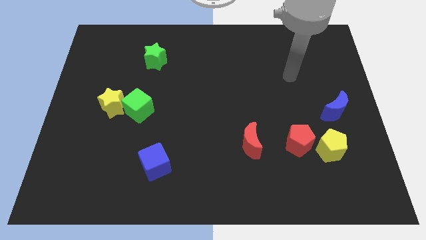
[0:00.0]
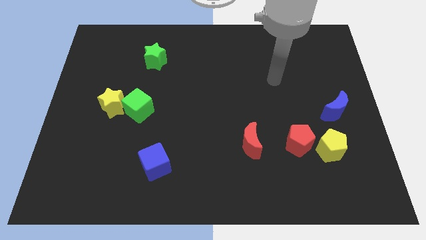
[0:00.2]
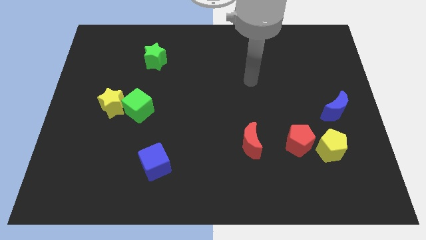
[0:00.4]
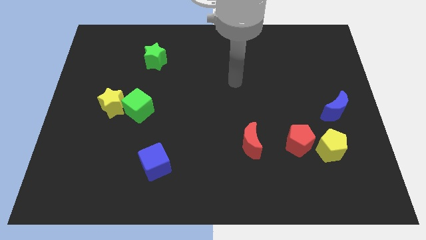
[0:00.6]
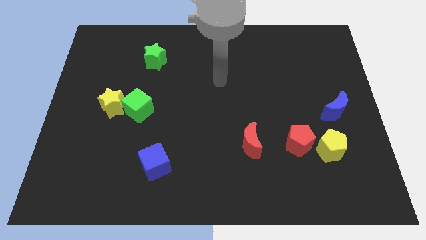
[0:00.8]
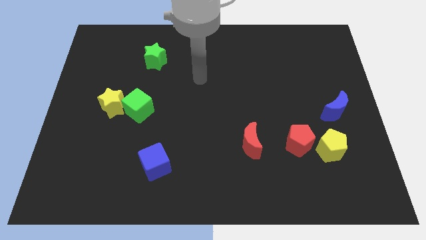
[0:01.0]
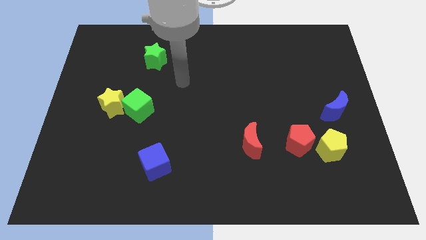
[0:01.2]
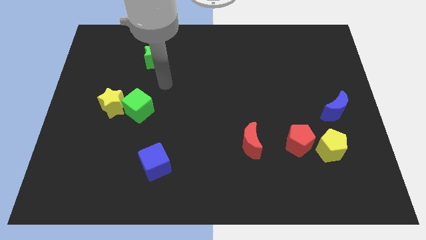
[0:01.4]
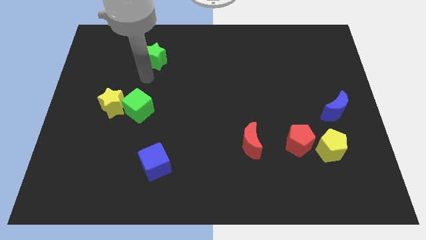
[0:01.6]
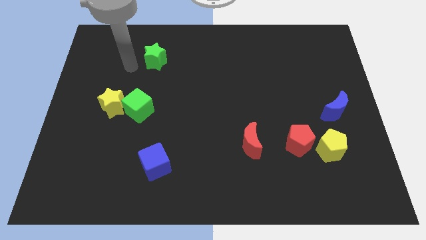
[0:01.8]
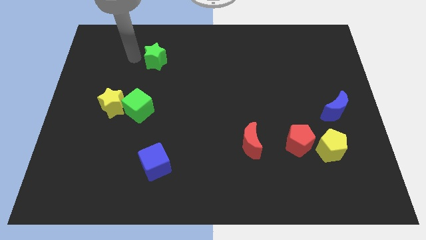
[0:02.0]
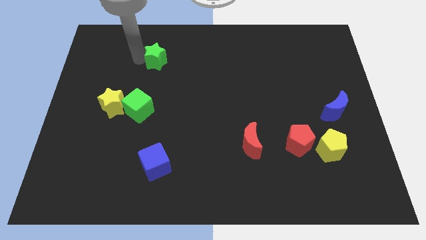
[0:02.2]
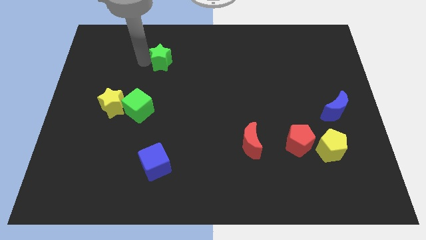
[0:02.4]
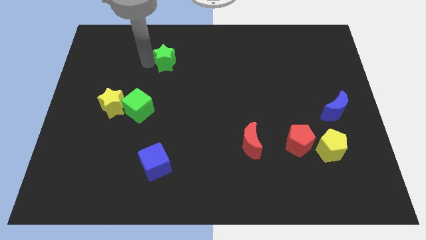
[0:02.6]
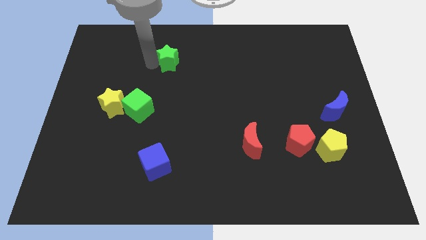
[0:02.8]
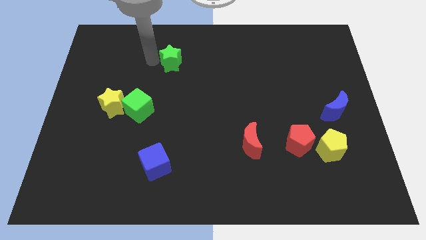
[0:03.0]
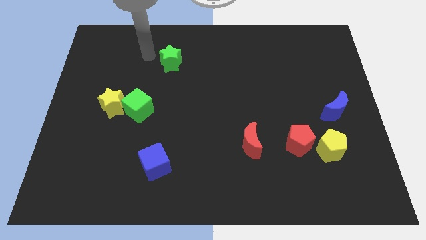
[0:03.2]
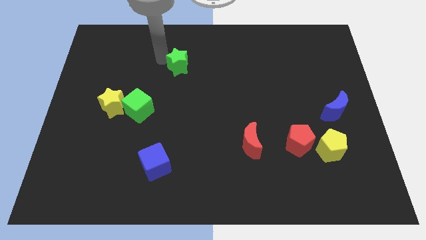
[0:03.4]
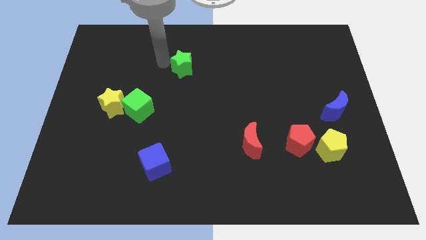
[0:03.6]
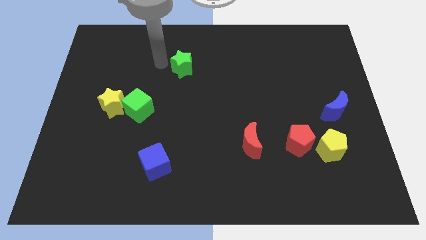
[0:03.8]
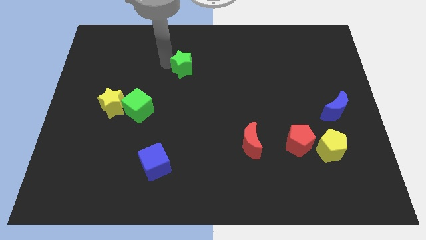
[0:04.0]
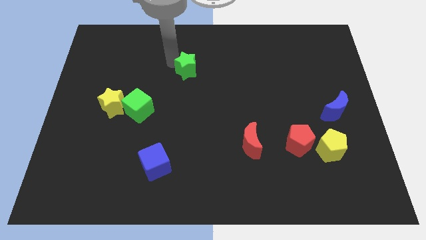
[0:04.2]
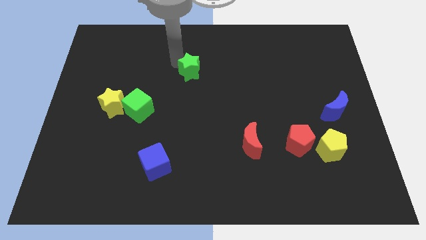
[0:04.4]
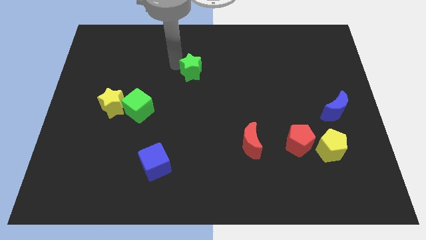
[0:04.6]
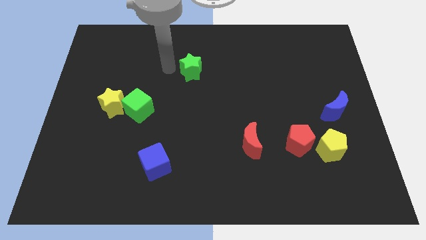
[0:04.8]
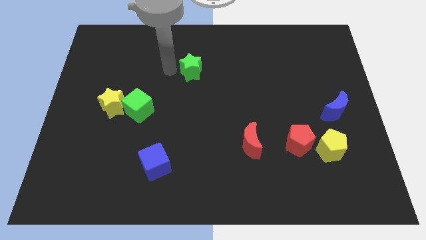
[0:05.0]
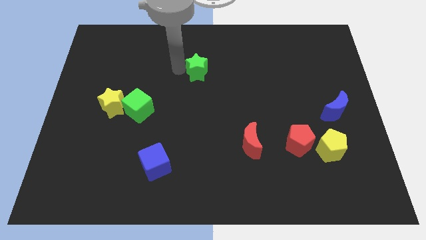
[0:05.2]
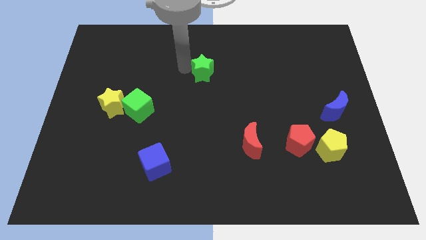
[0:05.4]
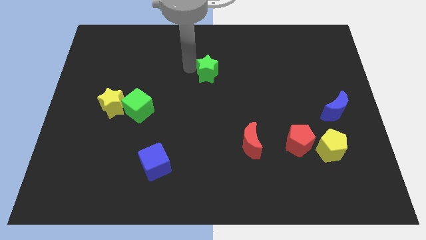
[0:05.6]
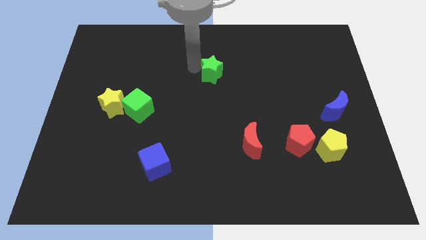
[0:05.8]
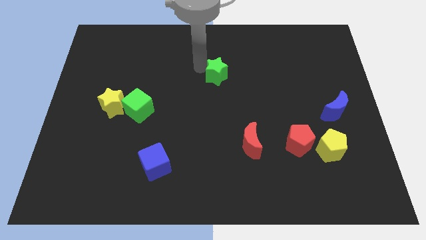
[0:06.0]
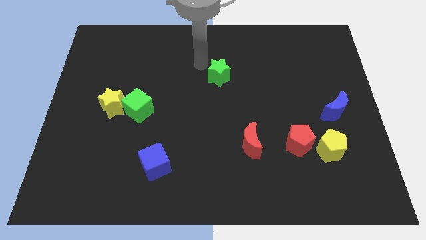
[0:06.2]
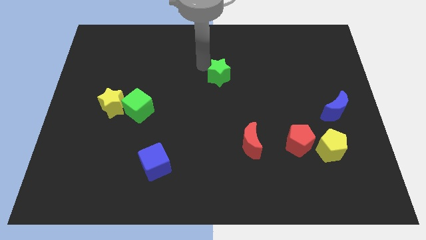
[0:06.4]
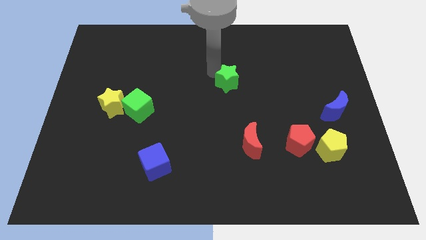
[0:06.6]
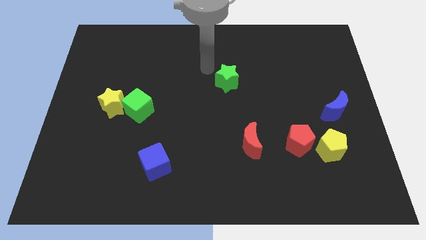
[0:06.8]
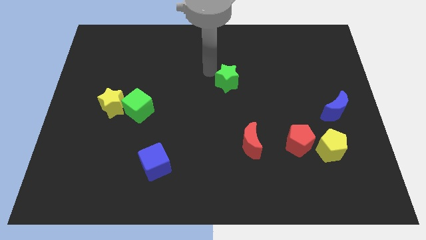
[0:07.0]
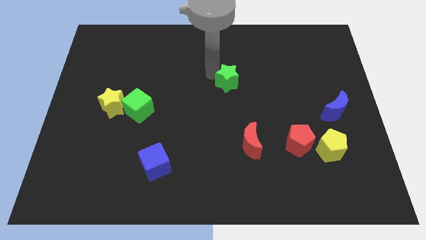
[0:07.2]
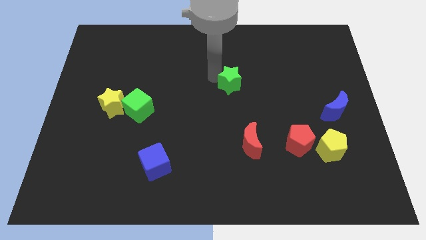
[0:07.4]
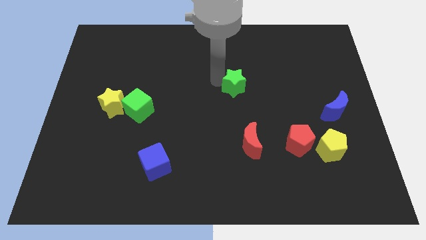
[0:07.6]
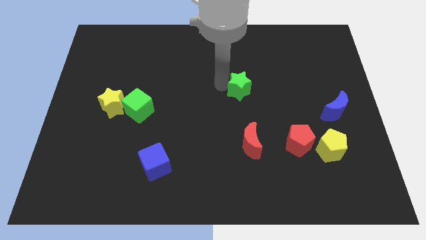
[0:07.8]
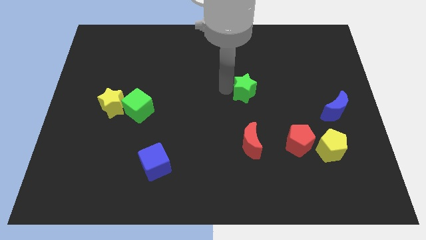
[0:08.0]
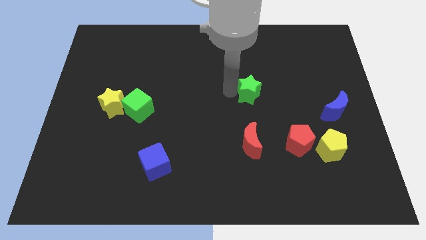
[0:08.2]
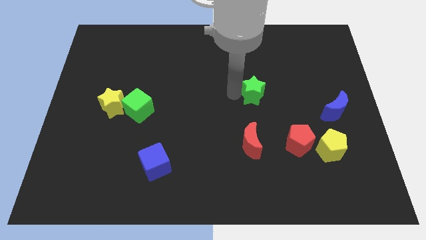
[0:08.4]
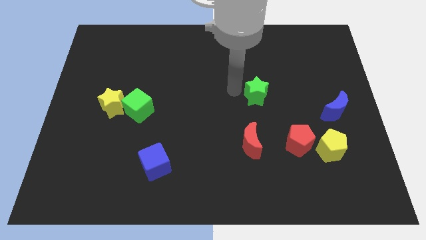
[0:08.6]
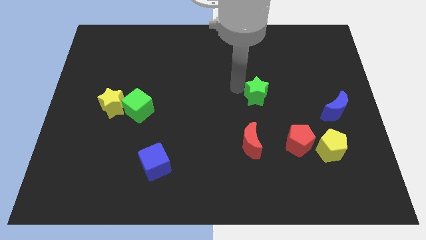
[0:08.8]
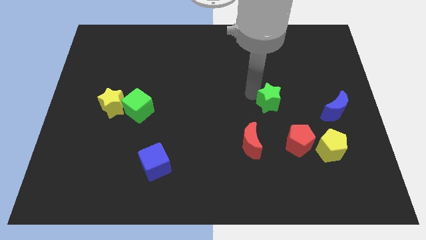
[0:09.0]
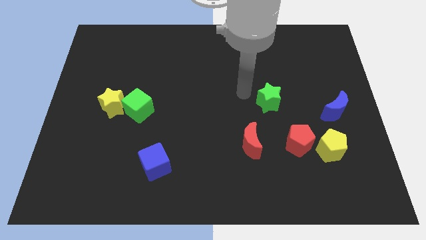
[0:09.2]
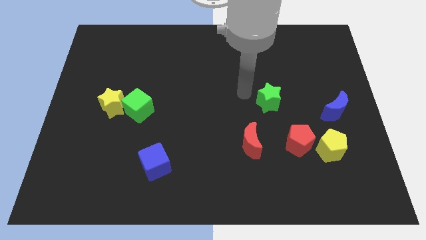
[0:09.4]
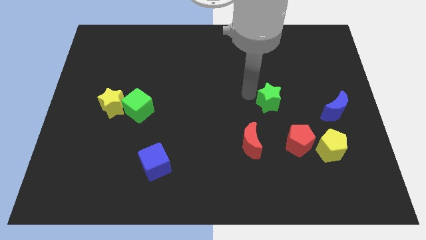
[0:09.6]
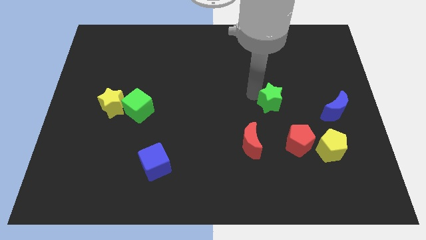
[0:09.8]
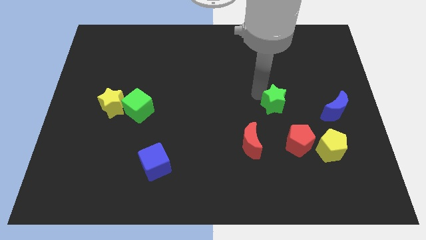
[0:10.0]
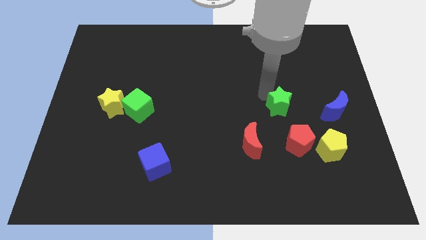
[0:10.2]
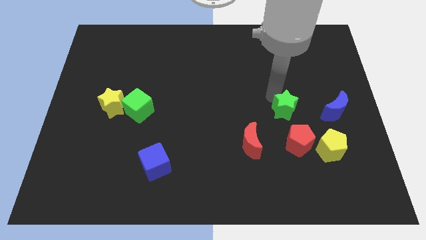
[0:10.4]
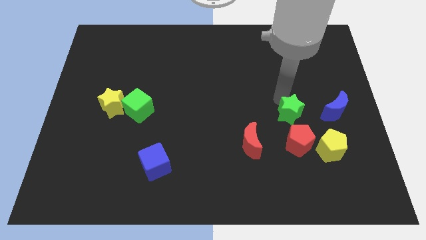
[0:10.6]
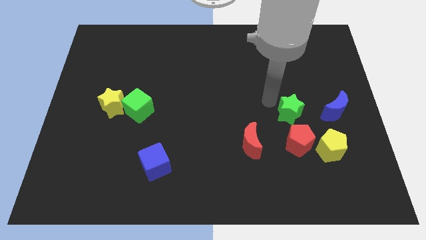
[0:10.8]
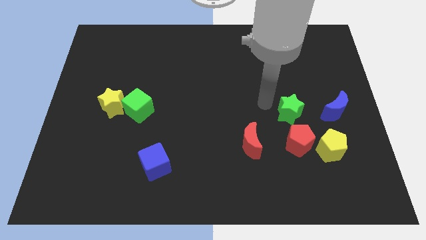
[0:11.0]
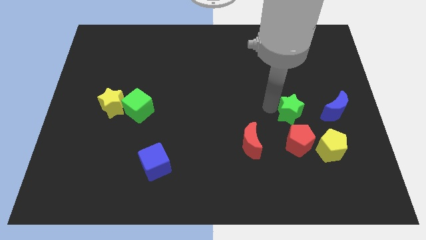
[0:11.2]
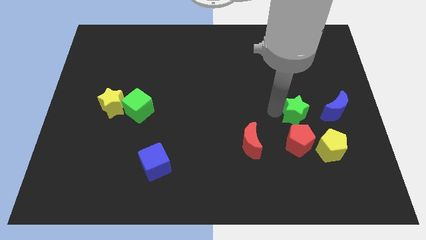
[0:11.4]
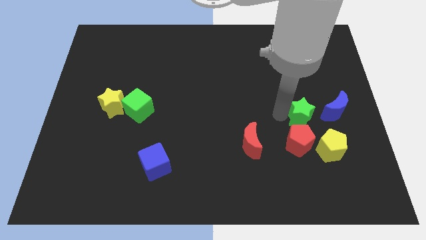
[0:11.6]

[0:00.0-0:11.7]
move the green star to the top right of the red pentagon

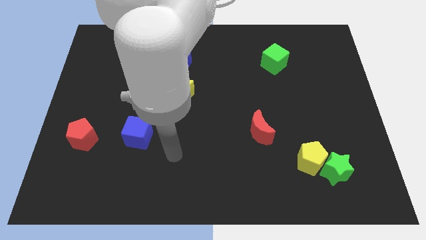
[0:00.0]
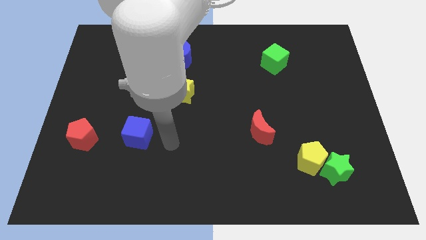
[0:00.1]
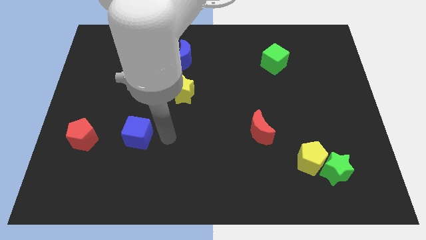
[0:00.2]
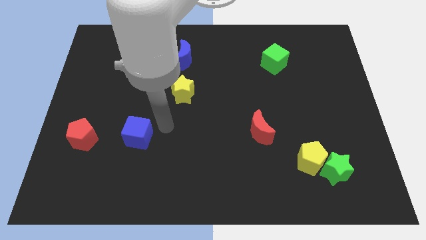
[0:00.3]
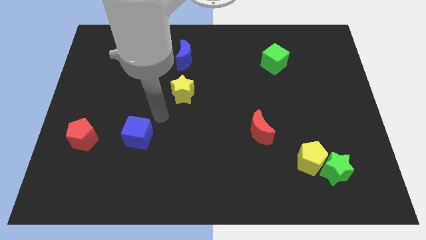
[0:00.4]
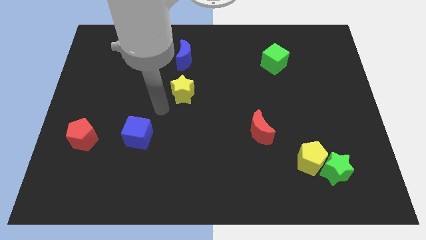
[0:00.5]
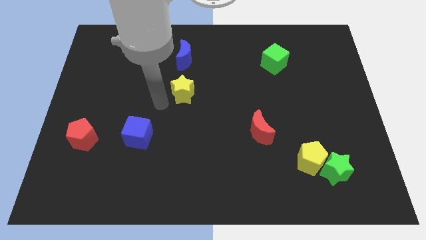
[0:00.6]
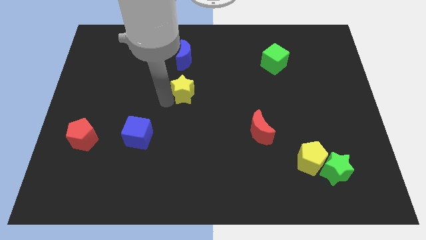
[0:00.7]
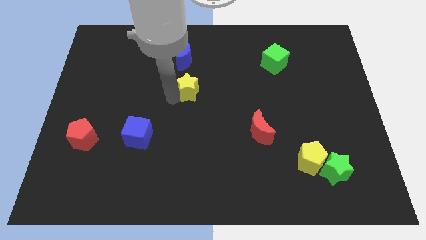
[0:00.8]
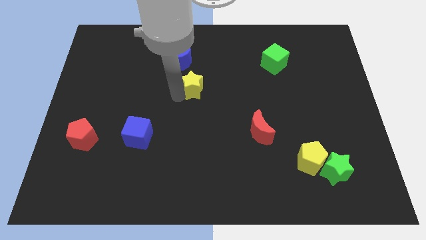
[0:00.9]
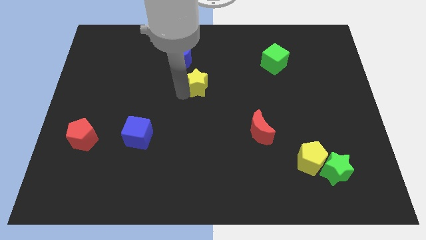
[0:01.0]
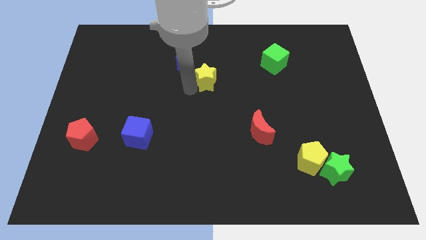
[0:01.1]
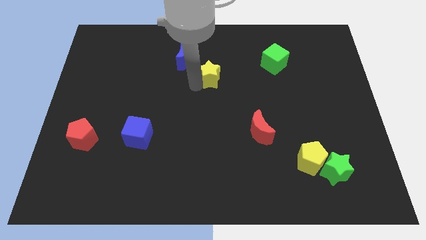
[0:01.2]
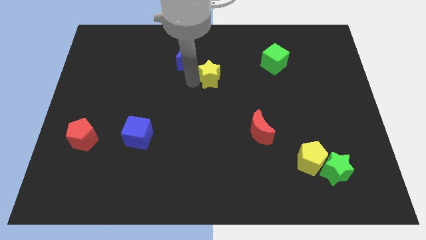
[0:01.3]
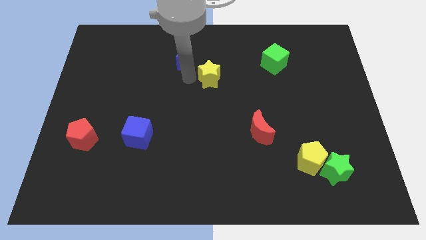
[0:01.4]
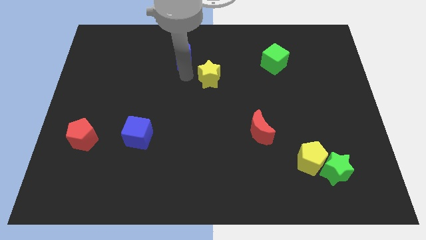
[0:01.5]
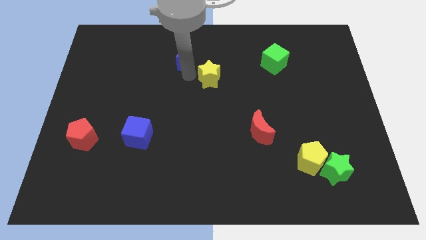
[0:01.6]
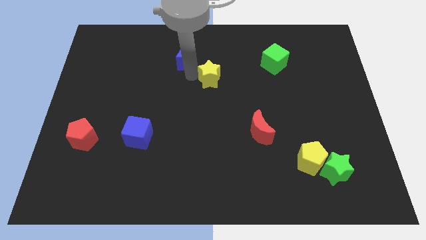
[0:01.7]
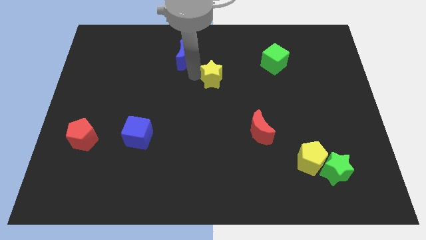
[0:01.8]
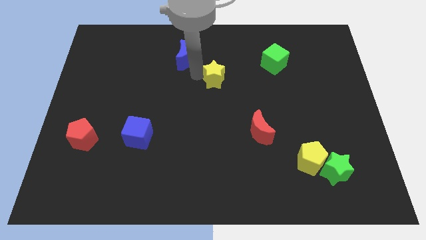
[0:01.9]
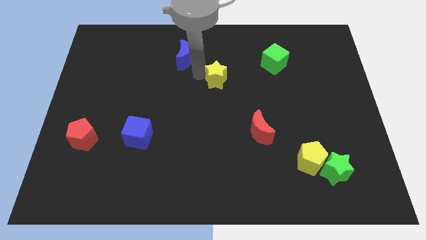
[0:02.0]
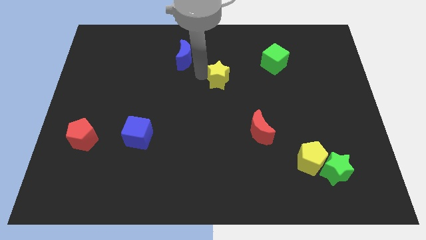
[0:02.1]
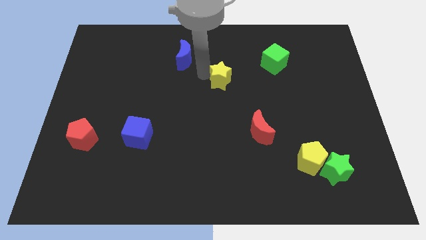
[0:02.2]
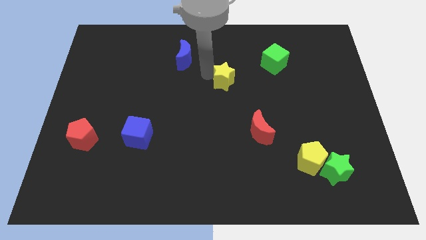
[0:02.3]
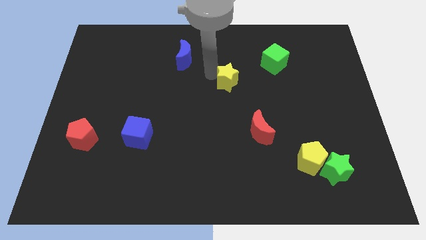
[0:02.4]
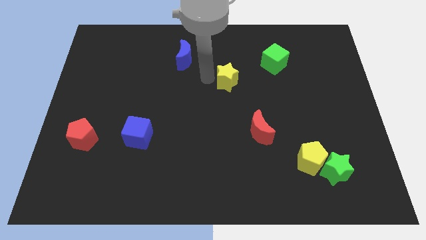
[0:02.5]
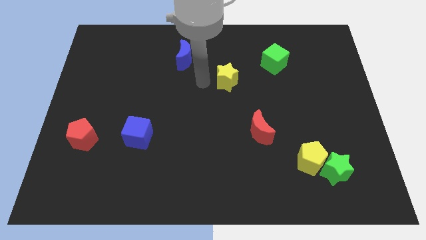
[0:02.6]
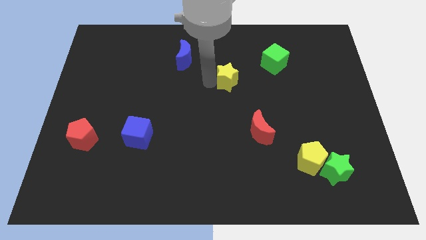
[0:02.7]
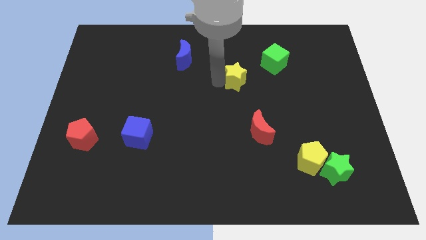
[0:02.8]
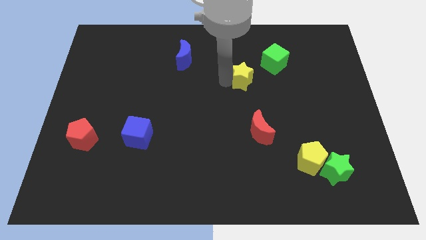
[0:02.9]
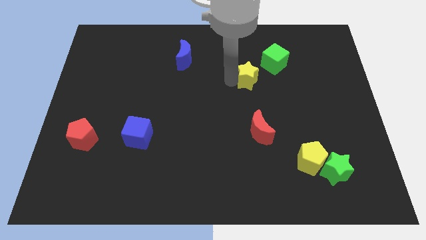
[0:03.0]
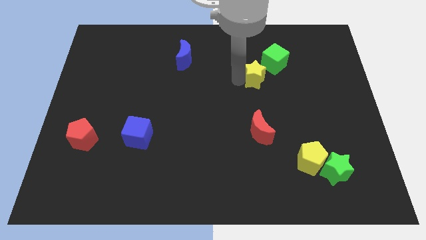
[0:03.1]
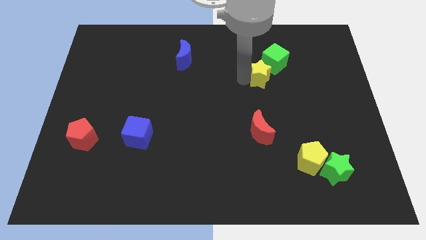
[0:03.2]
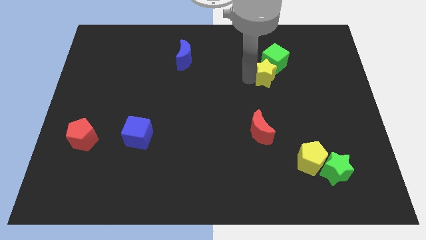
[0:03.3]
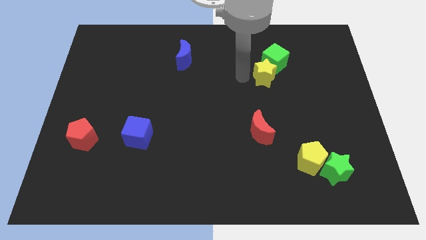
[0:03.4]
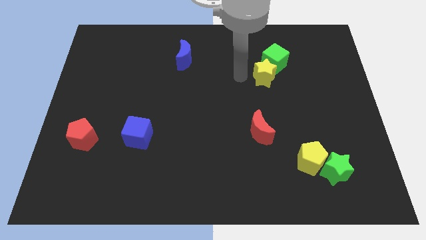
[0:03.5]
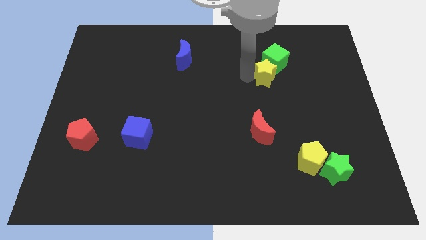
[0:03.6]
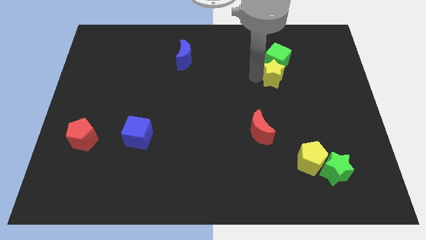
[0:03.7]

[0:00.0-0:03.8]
move the yellow star to the bottom right side of the green cube
